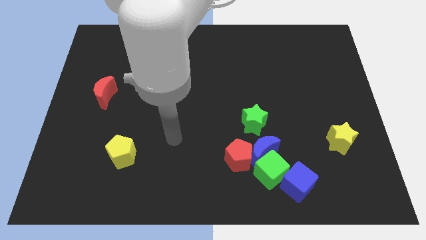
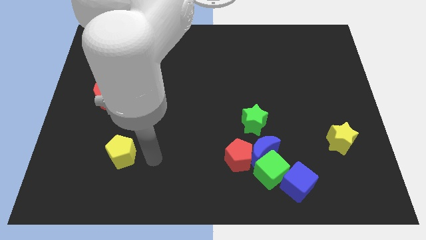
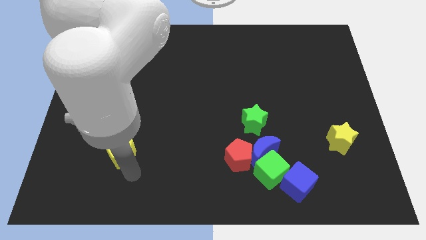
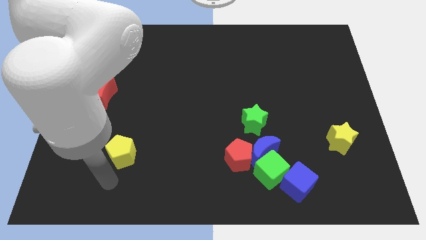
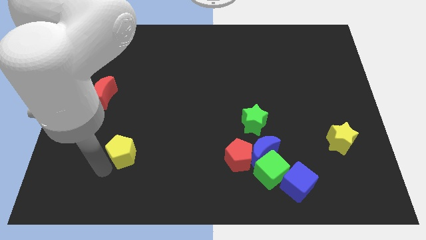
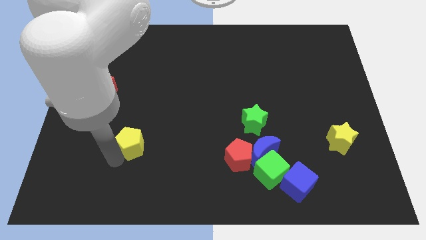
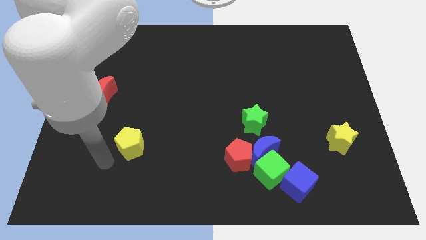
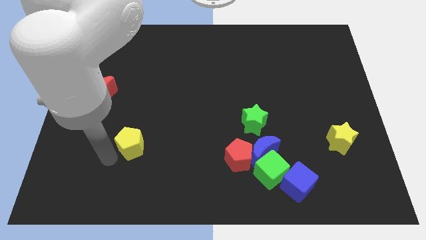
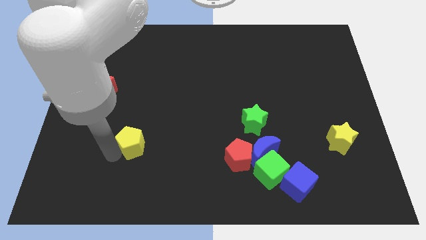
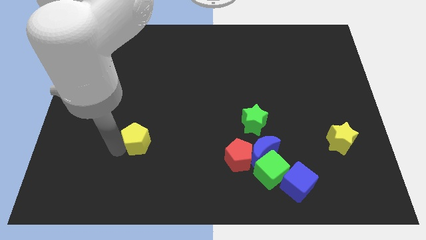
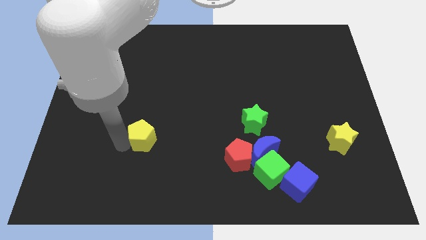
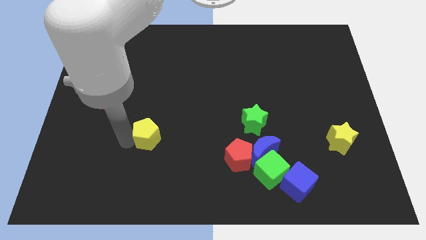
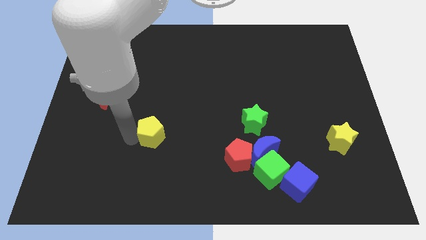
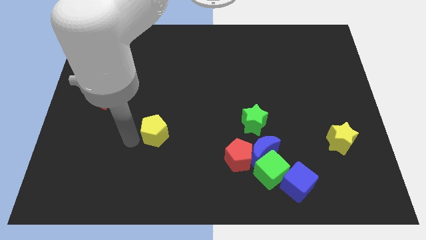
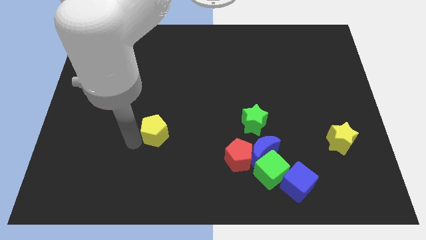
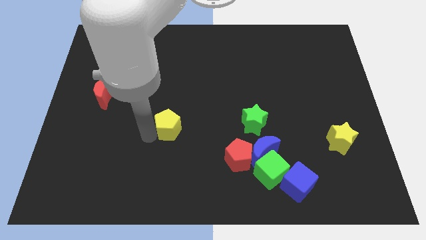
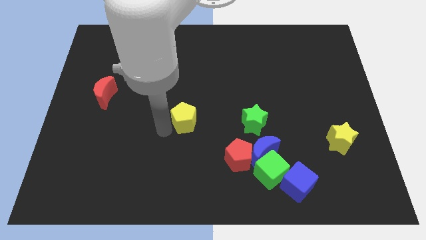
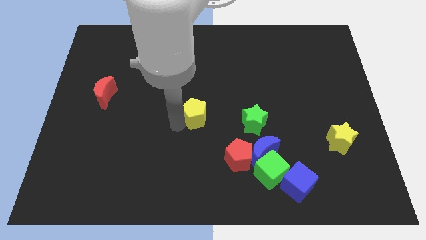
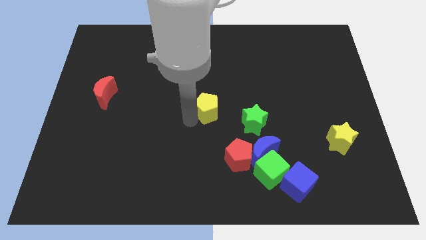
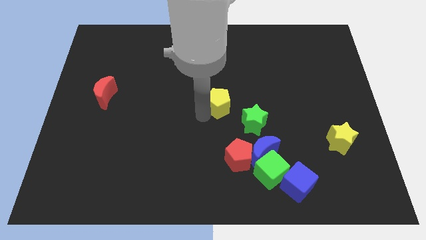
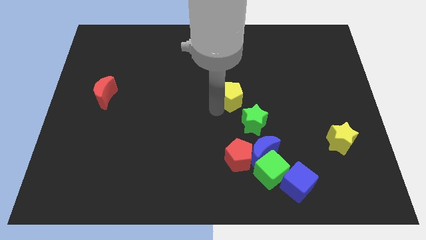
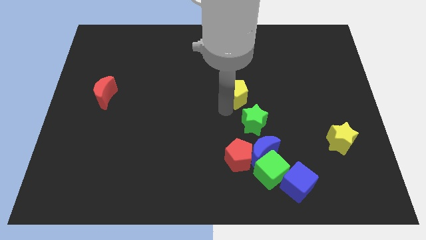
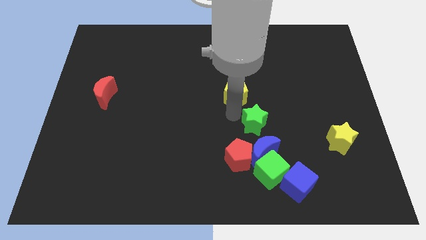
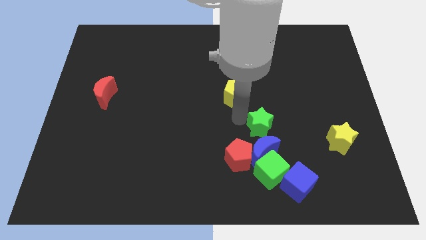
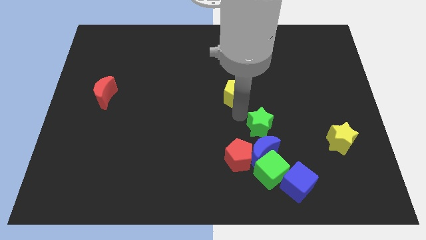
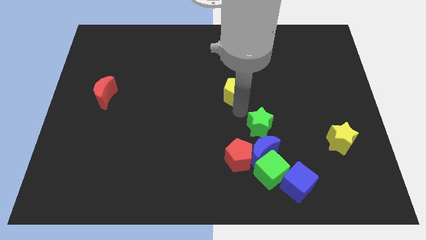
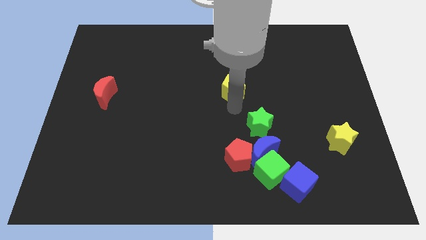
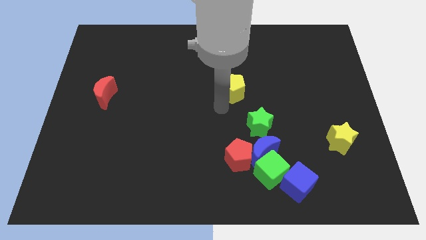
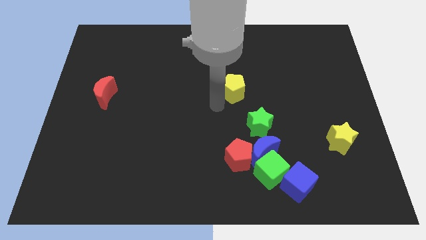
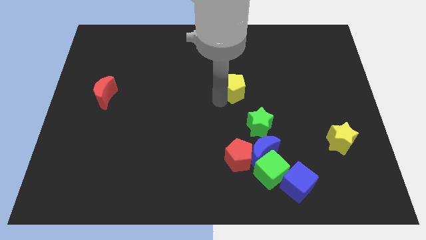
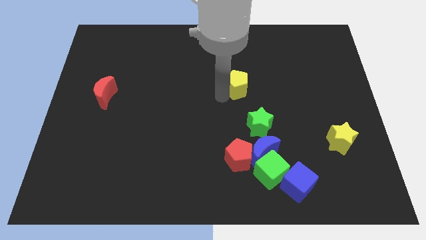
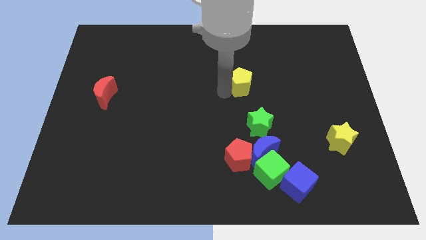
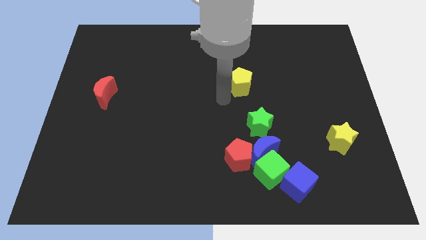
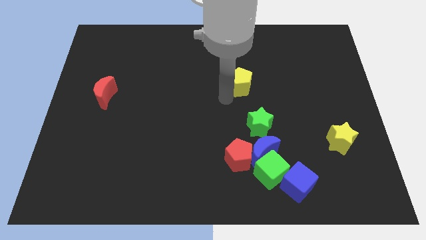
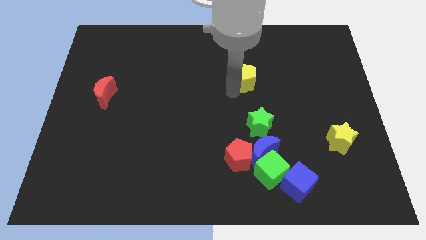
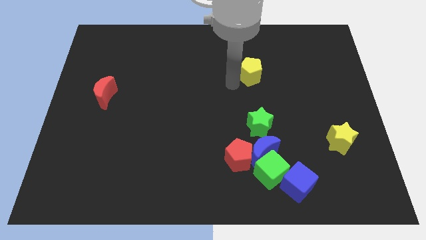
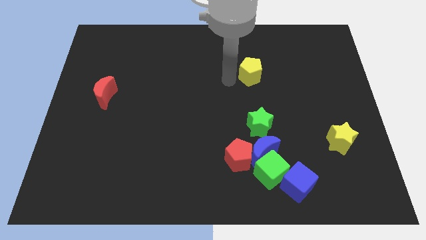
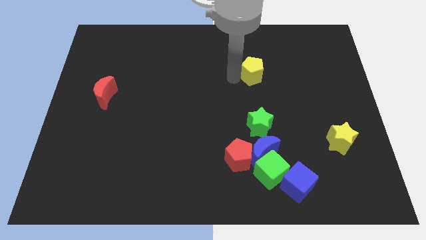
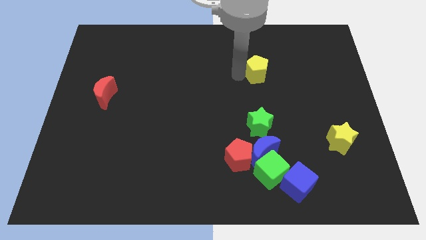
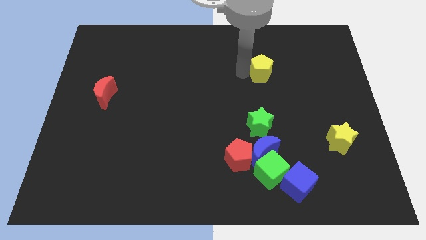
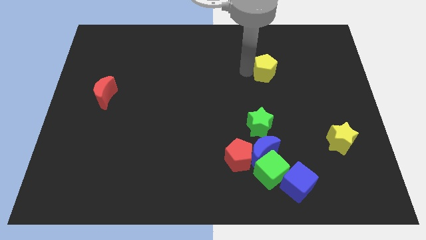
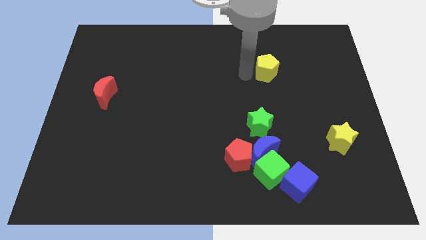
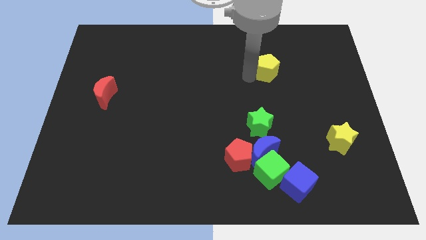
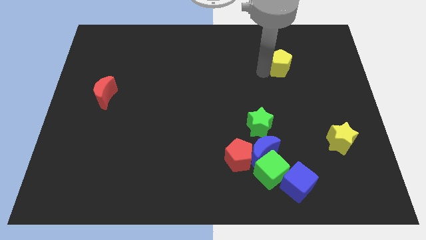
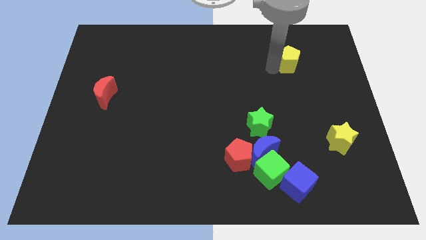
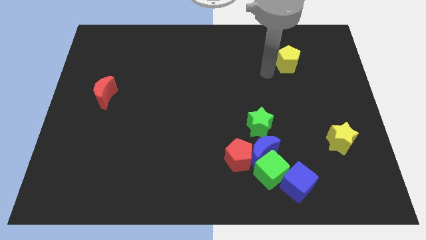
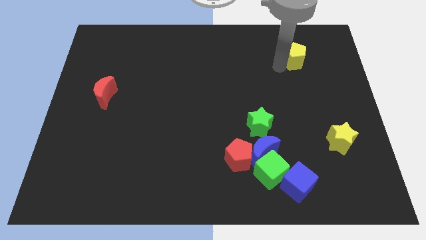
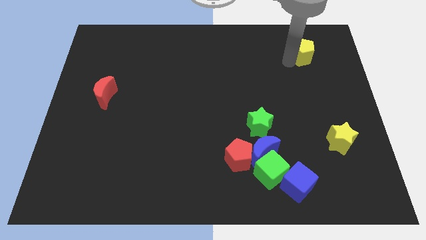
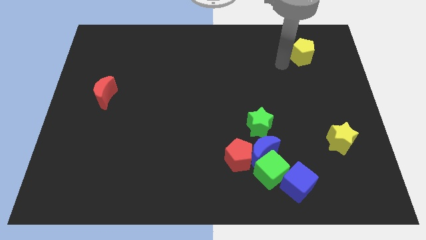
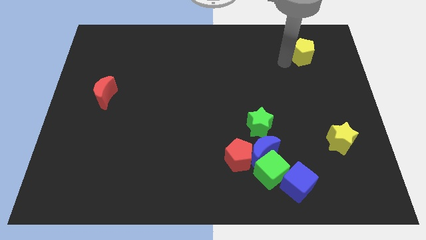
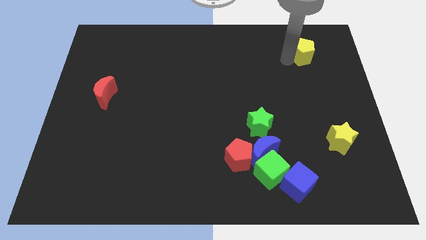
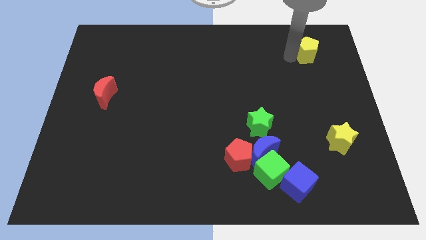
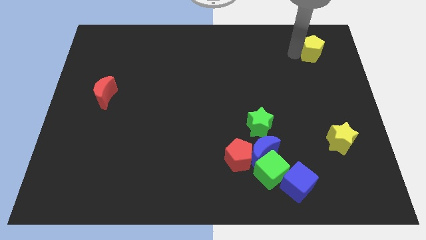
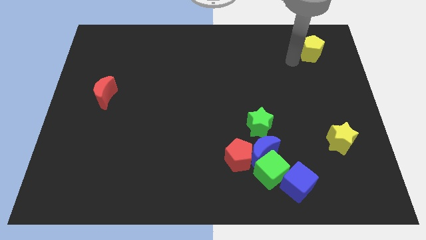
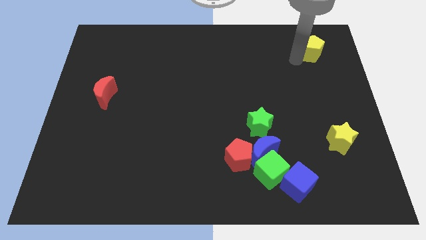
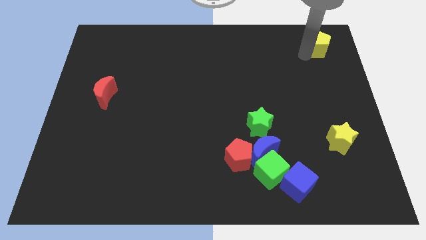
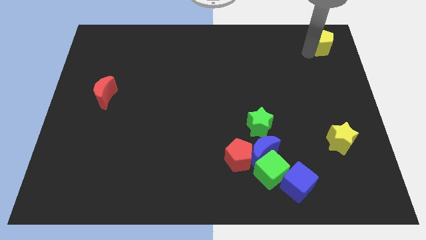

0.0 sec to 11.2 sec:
move the yellow pentagon to the top right corner
